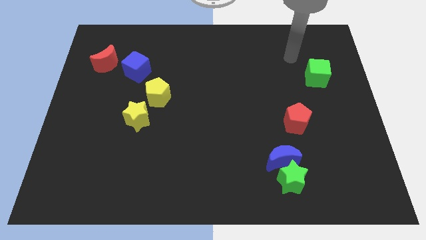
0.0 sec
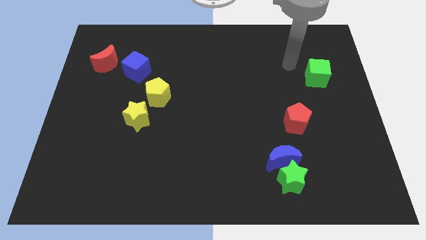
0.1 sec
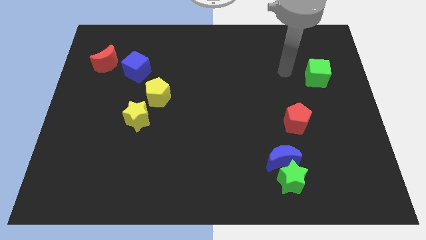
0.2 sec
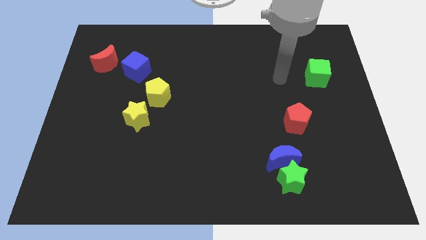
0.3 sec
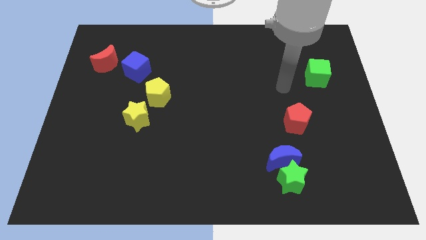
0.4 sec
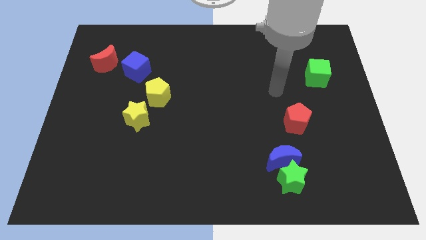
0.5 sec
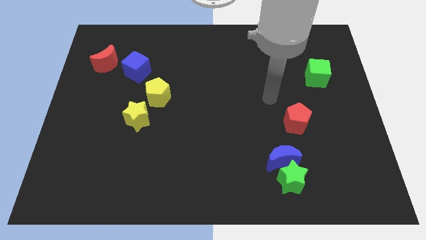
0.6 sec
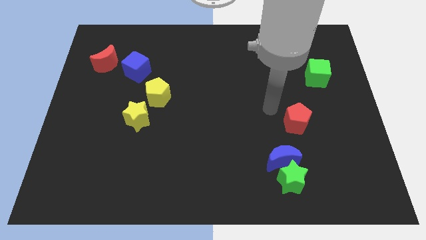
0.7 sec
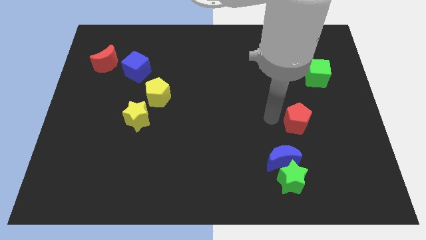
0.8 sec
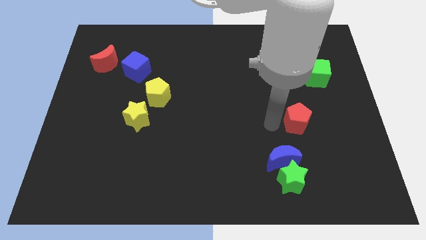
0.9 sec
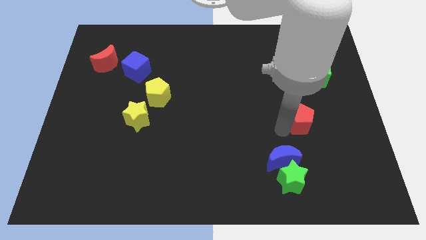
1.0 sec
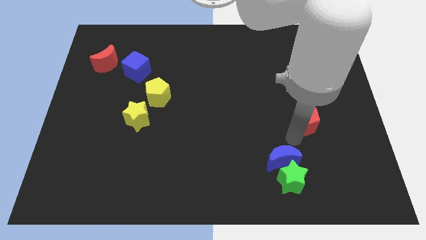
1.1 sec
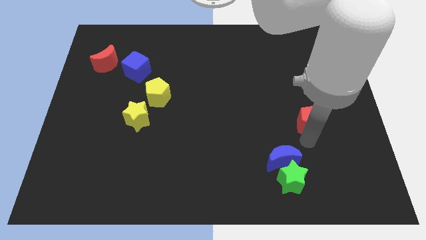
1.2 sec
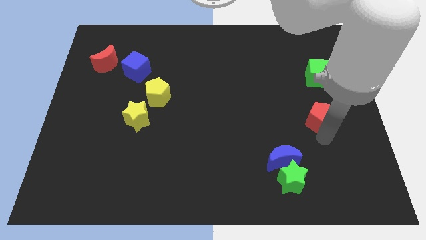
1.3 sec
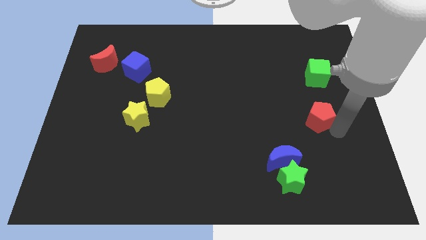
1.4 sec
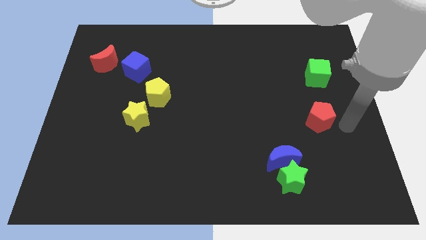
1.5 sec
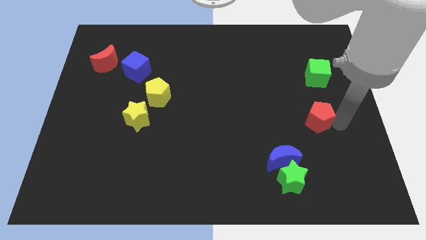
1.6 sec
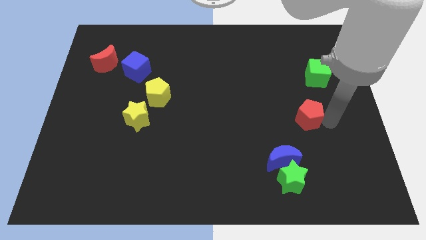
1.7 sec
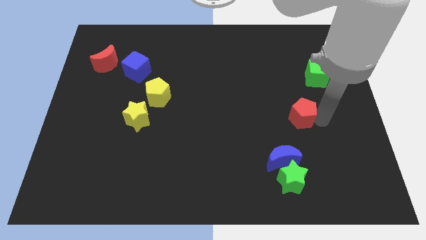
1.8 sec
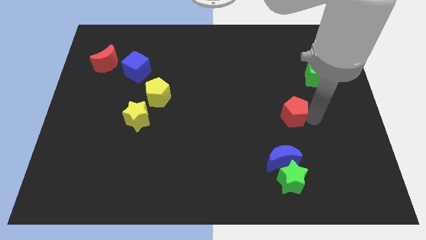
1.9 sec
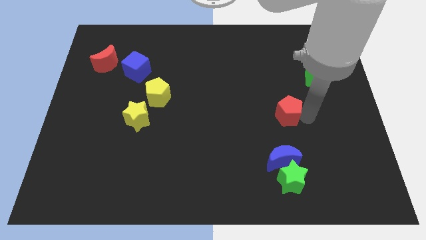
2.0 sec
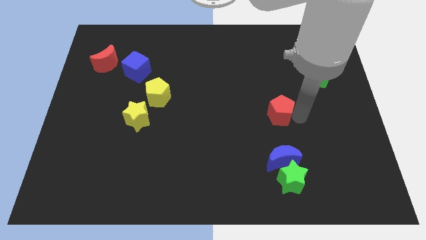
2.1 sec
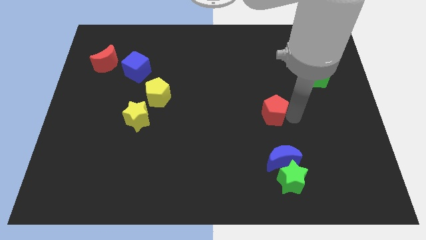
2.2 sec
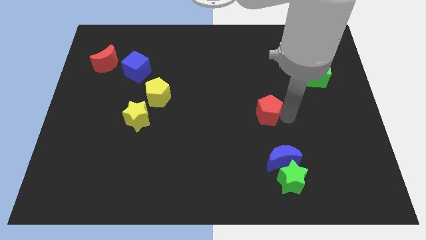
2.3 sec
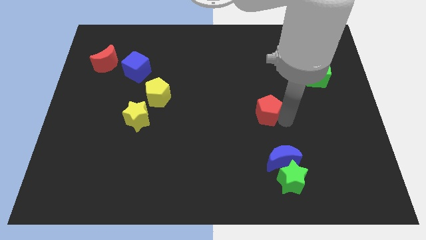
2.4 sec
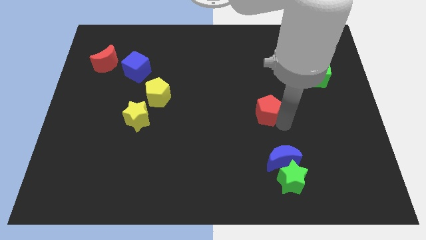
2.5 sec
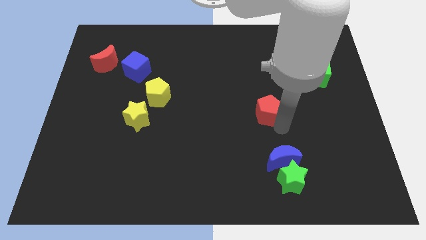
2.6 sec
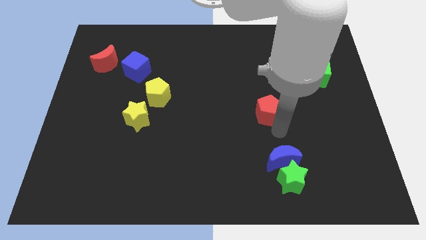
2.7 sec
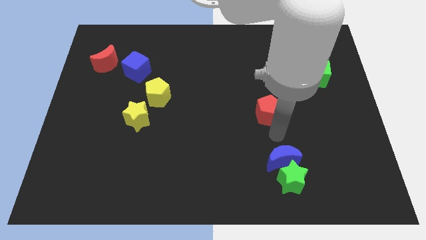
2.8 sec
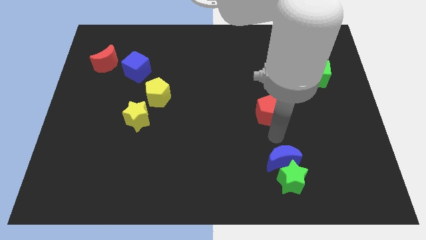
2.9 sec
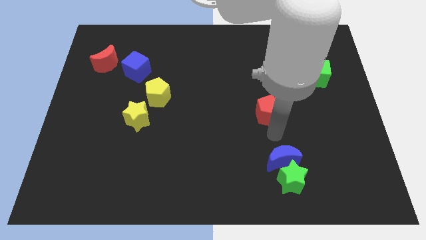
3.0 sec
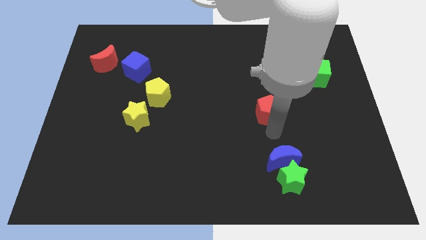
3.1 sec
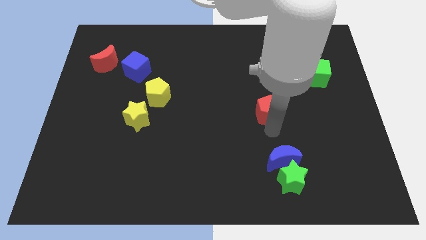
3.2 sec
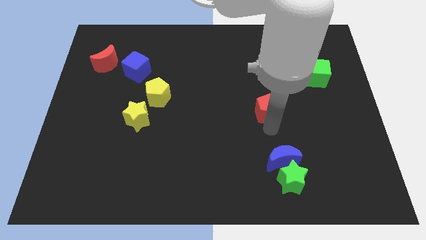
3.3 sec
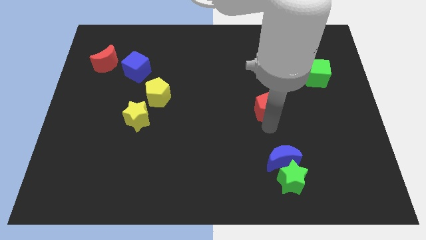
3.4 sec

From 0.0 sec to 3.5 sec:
slightly push the red pentagon diagonally up and to the left

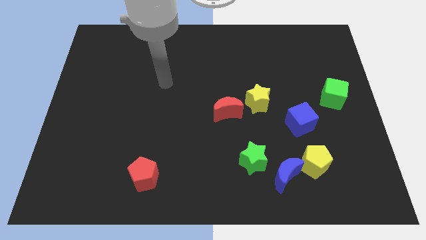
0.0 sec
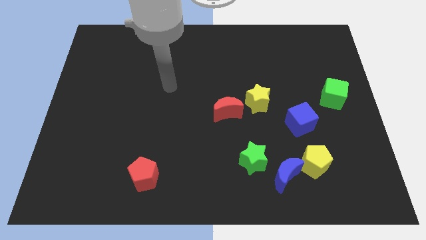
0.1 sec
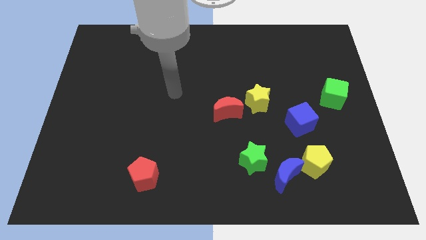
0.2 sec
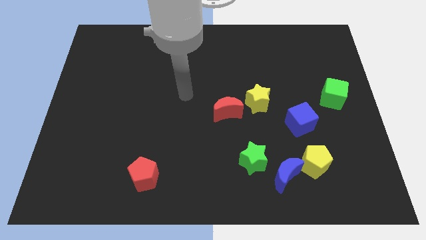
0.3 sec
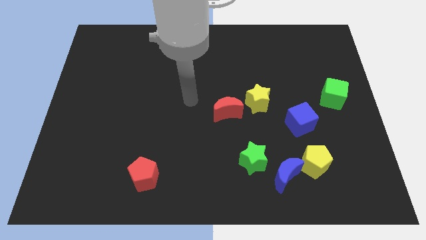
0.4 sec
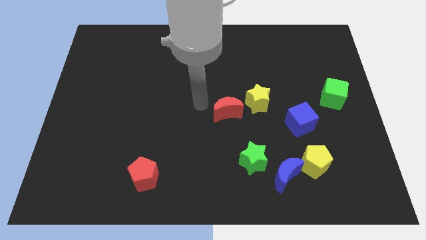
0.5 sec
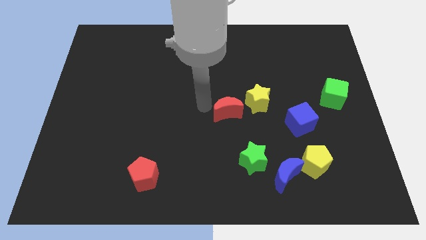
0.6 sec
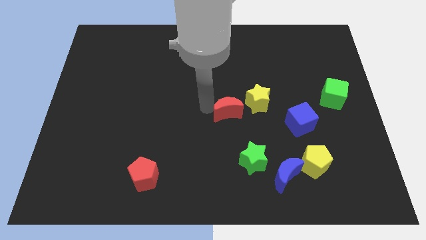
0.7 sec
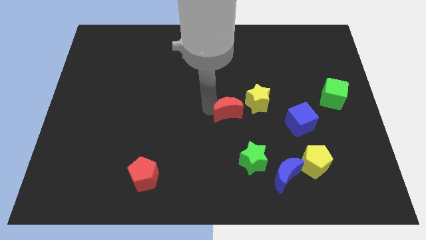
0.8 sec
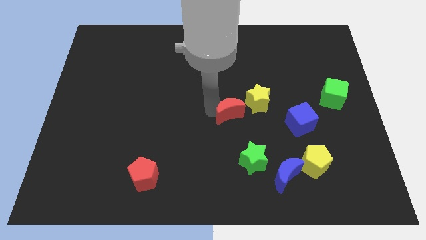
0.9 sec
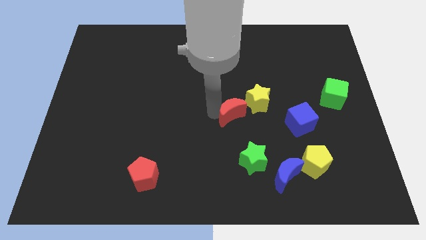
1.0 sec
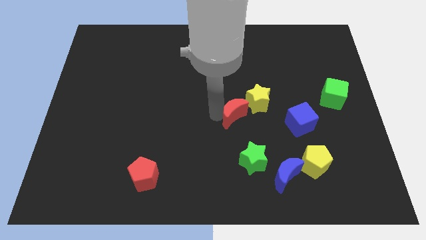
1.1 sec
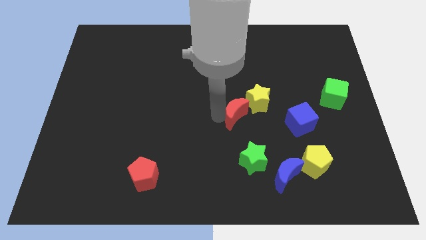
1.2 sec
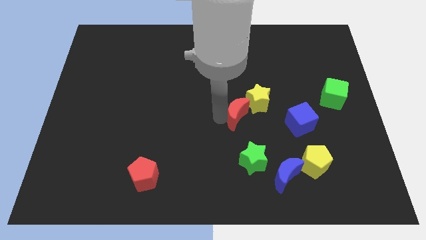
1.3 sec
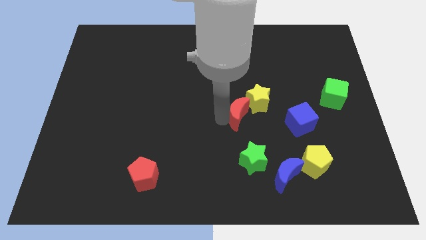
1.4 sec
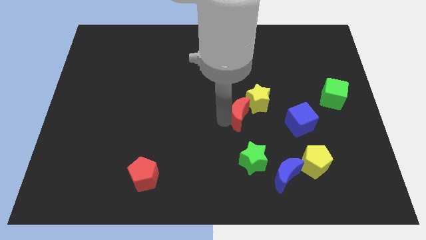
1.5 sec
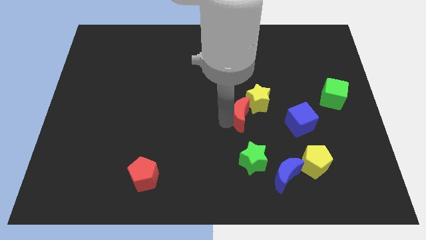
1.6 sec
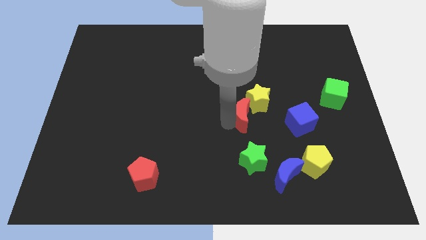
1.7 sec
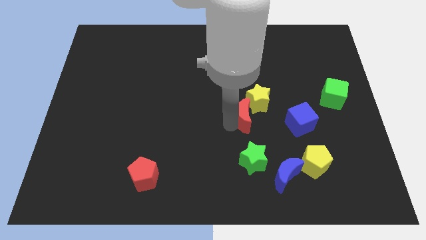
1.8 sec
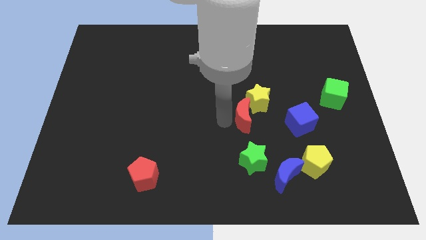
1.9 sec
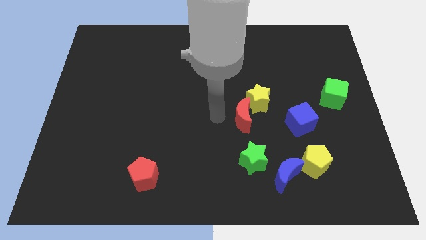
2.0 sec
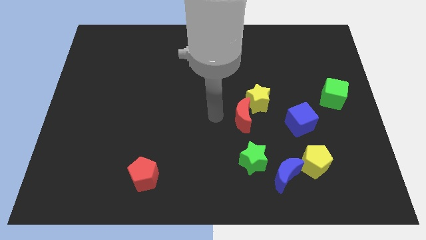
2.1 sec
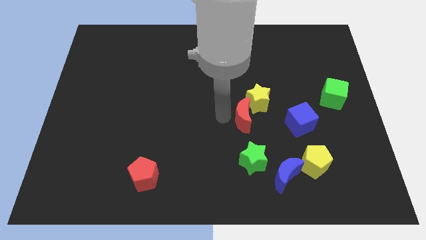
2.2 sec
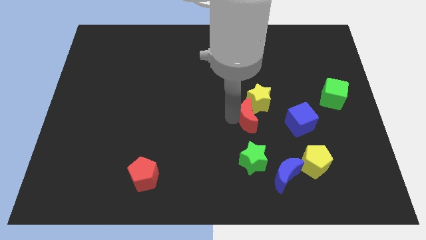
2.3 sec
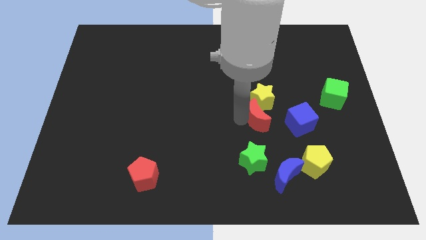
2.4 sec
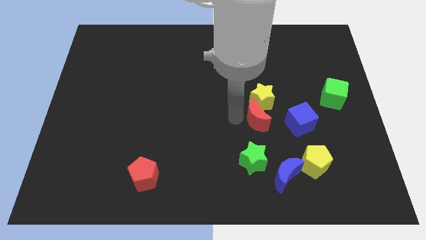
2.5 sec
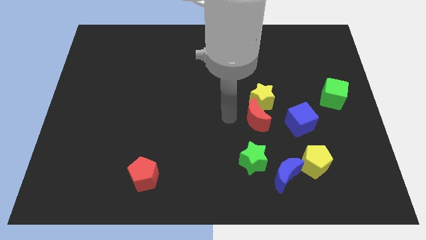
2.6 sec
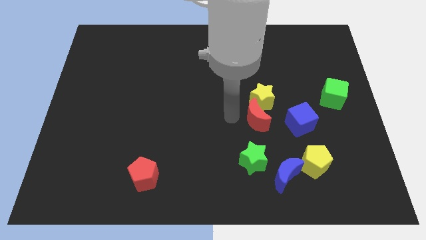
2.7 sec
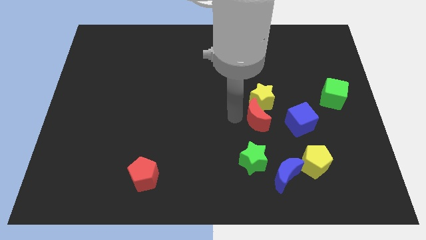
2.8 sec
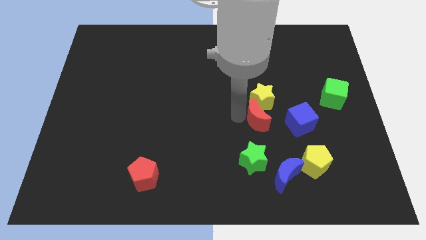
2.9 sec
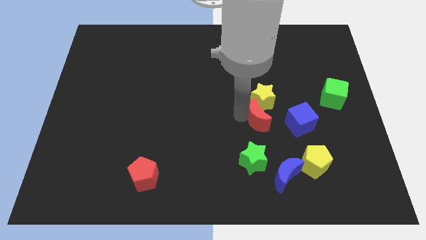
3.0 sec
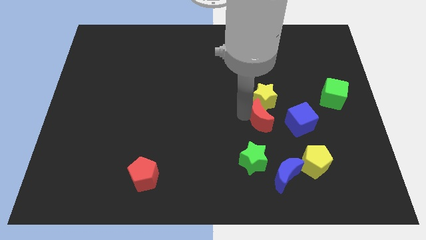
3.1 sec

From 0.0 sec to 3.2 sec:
push the red moon somewhat right

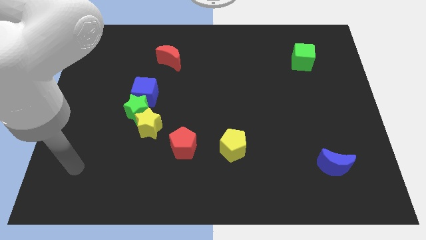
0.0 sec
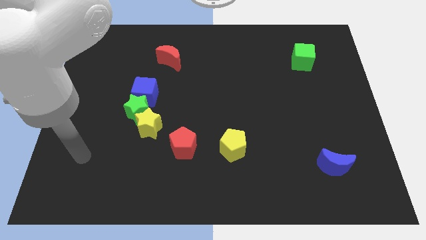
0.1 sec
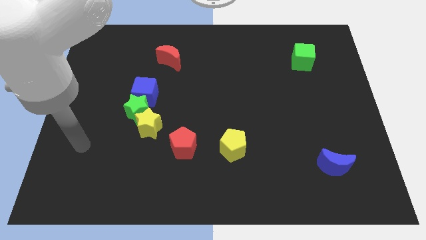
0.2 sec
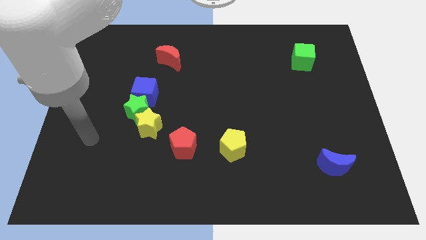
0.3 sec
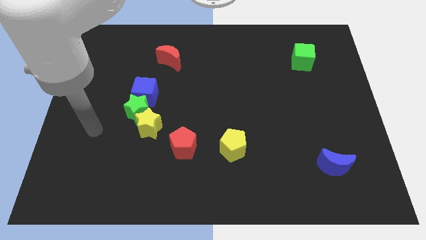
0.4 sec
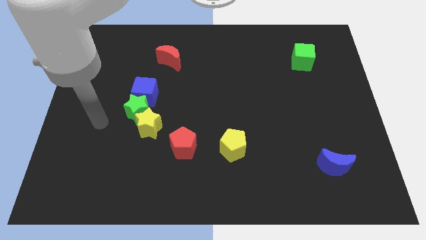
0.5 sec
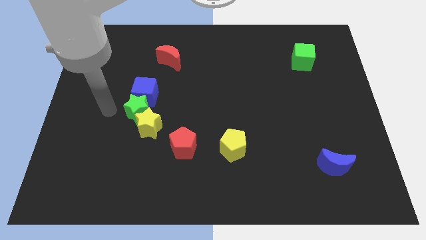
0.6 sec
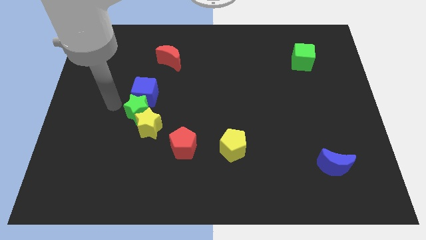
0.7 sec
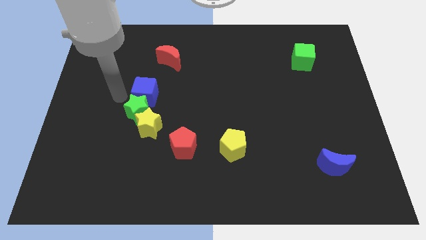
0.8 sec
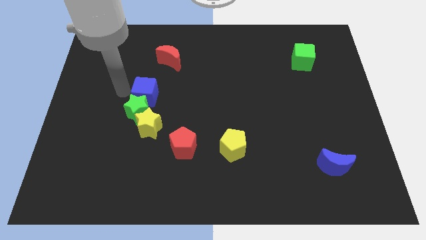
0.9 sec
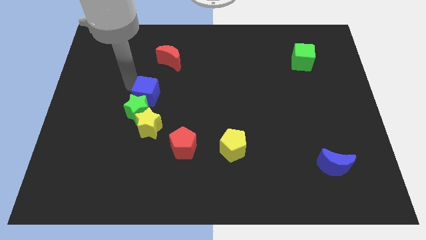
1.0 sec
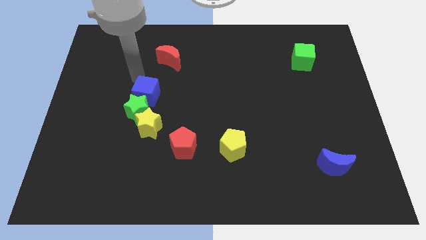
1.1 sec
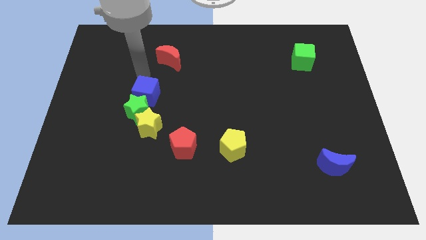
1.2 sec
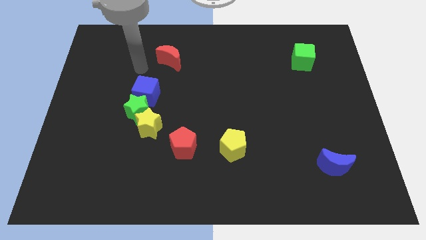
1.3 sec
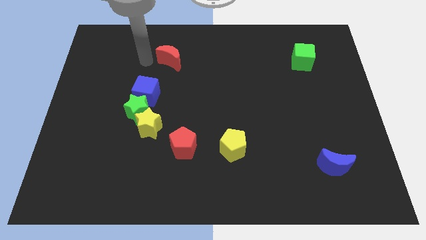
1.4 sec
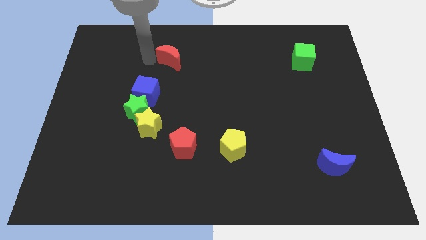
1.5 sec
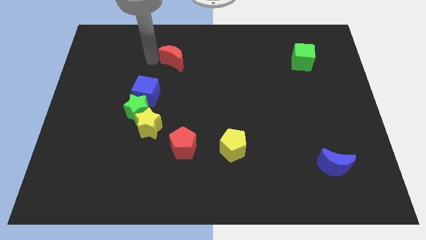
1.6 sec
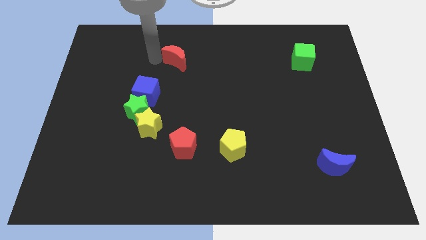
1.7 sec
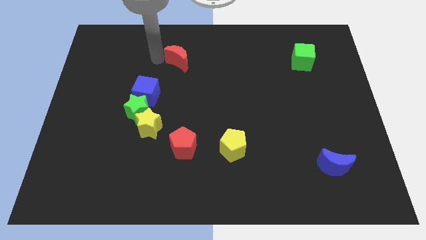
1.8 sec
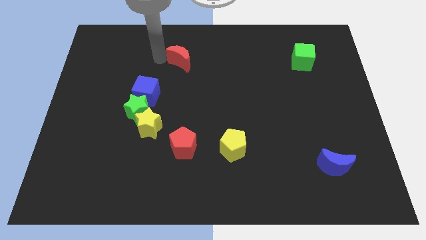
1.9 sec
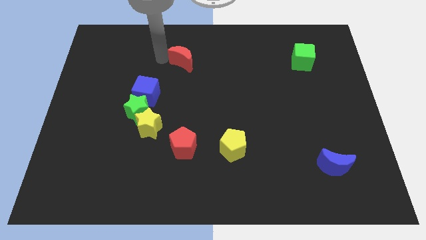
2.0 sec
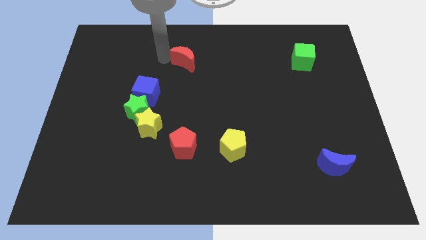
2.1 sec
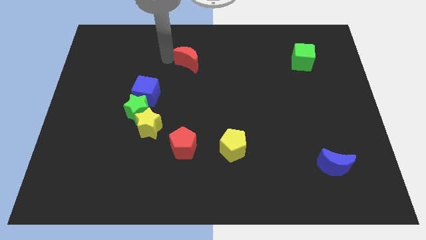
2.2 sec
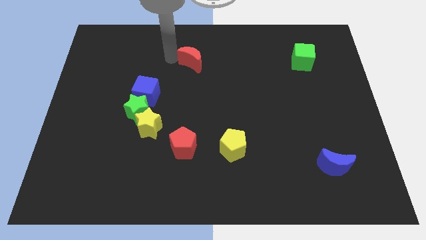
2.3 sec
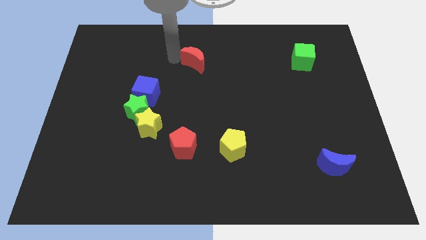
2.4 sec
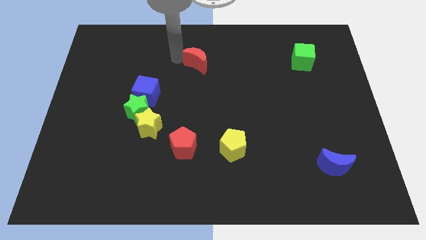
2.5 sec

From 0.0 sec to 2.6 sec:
slightly move the red moon to the right
